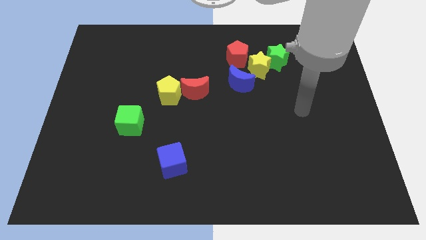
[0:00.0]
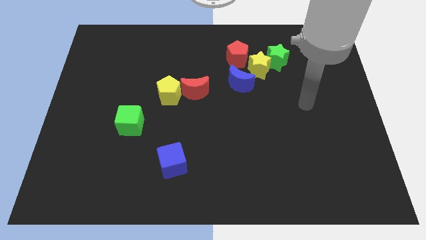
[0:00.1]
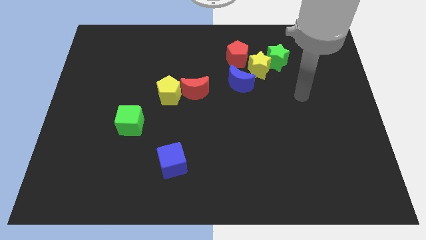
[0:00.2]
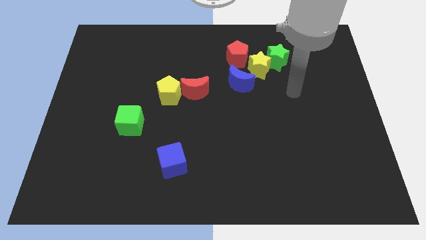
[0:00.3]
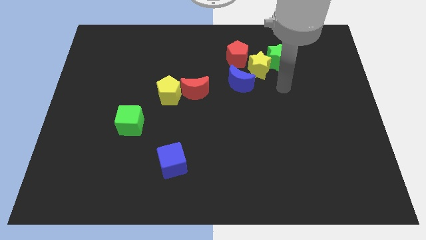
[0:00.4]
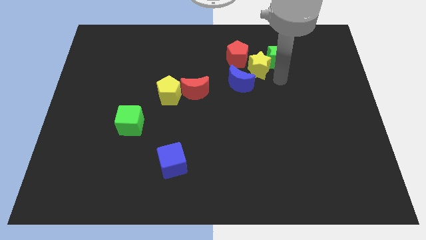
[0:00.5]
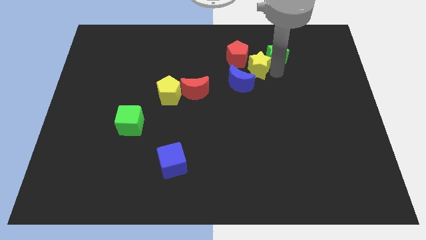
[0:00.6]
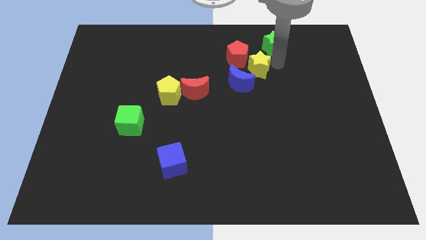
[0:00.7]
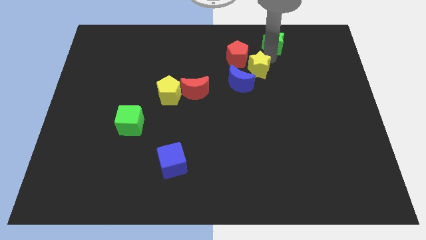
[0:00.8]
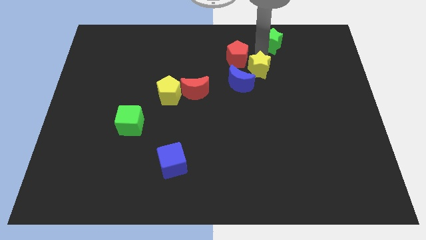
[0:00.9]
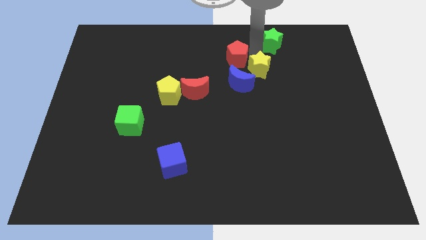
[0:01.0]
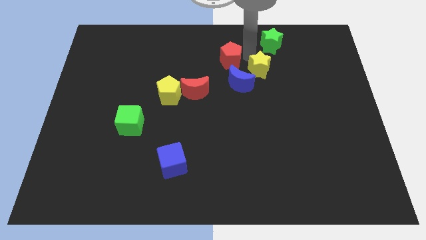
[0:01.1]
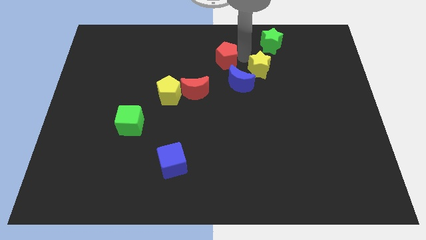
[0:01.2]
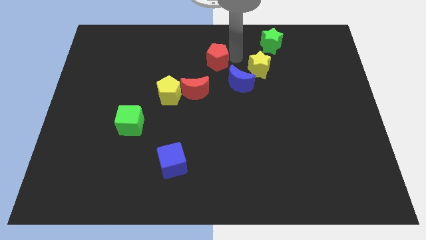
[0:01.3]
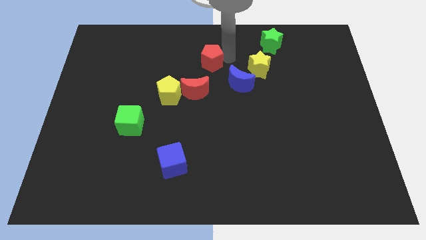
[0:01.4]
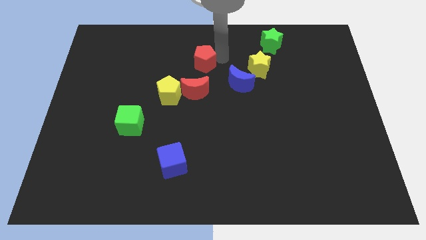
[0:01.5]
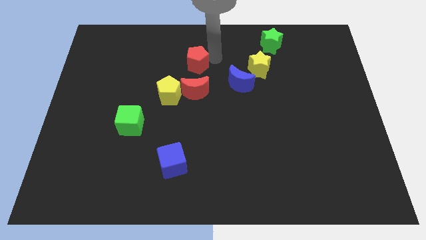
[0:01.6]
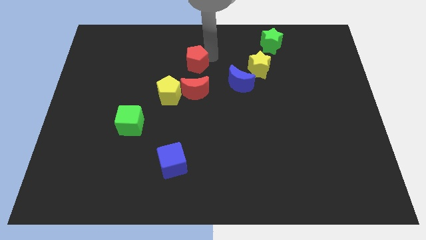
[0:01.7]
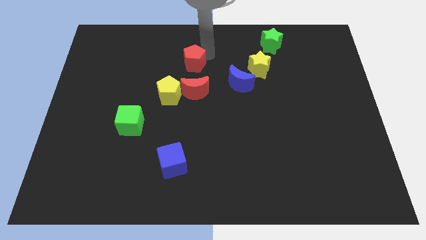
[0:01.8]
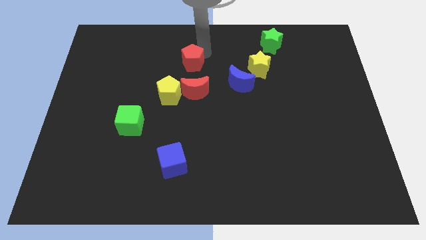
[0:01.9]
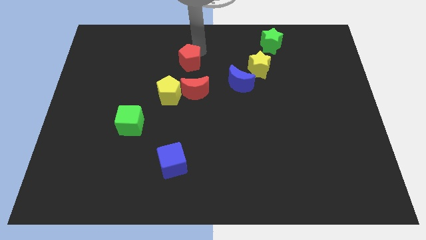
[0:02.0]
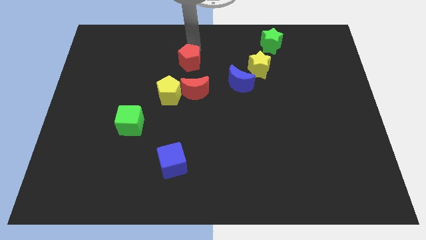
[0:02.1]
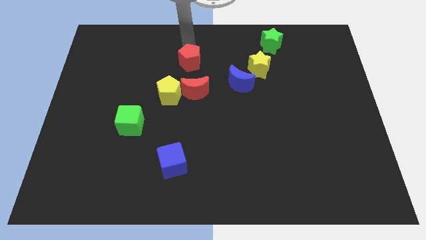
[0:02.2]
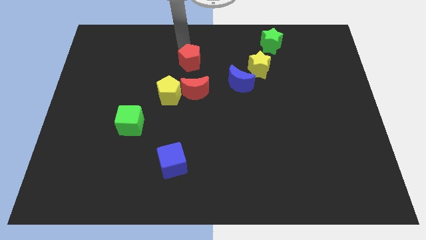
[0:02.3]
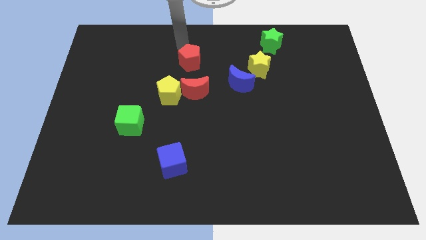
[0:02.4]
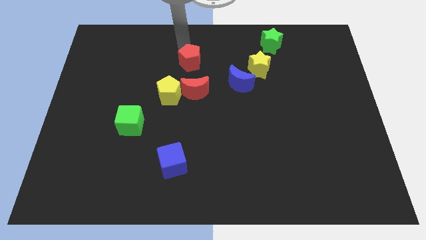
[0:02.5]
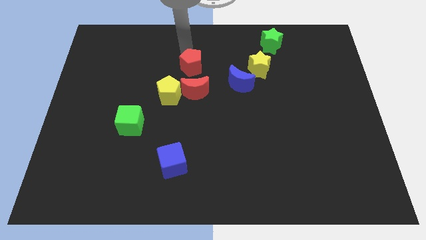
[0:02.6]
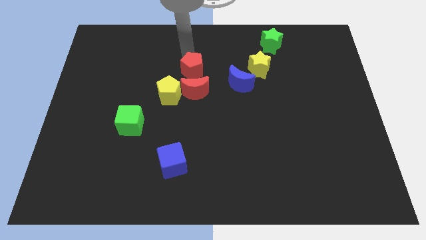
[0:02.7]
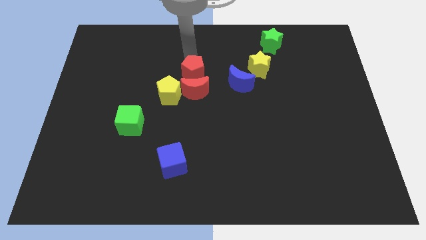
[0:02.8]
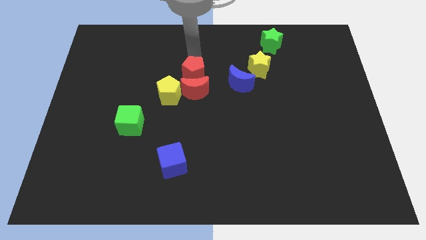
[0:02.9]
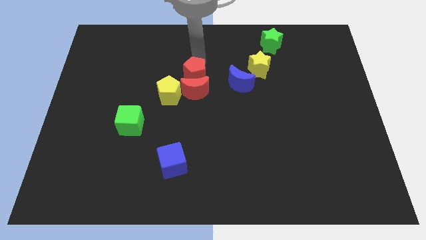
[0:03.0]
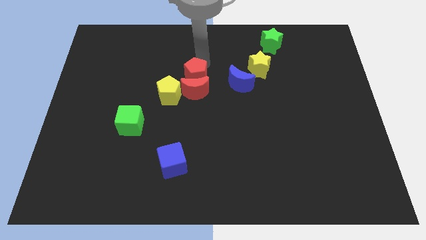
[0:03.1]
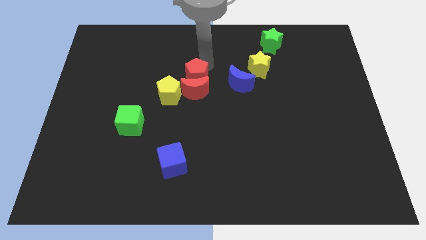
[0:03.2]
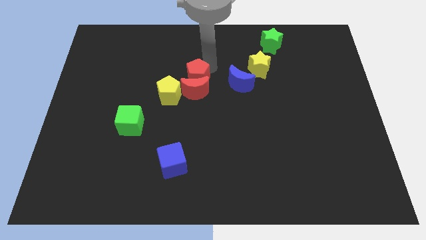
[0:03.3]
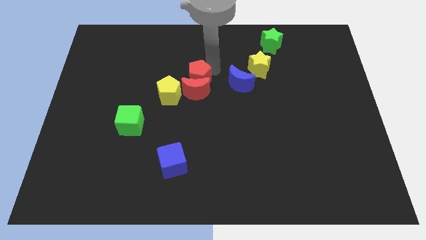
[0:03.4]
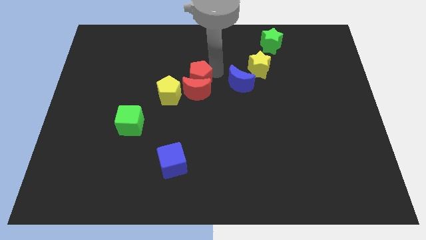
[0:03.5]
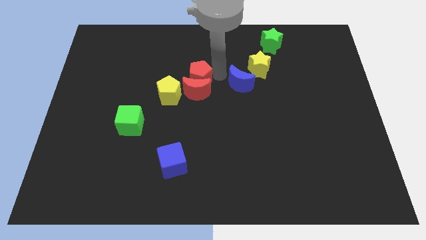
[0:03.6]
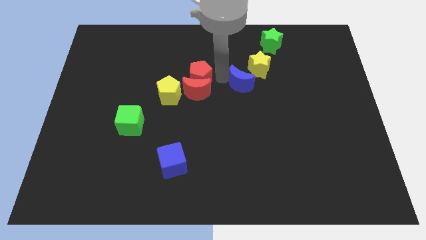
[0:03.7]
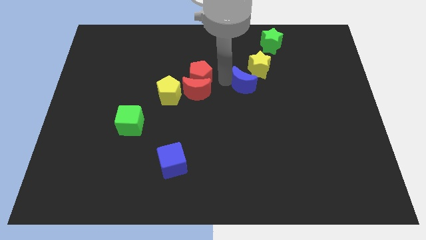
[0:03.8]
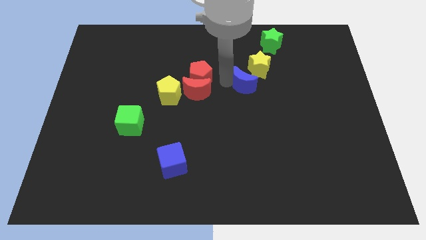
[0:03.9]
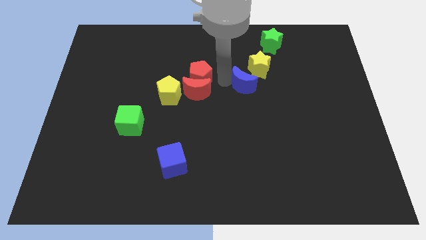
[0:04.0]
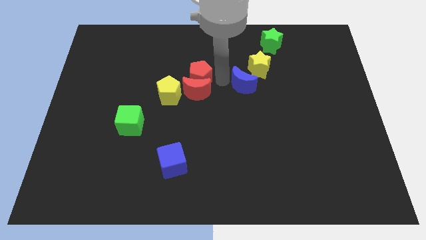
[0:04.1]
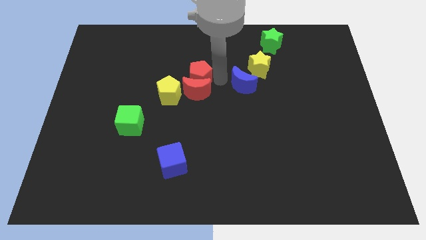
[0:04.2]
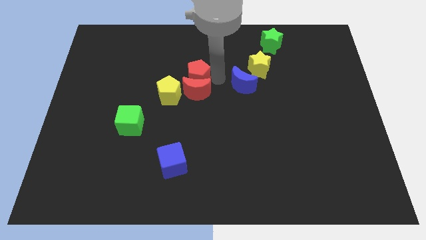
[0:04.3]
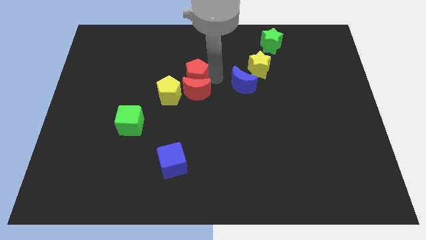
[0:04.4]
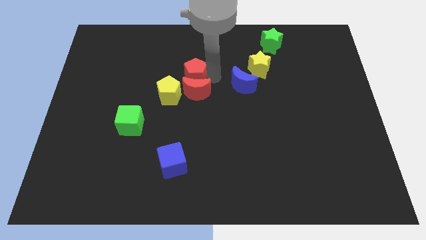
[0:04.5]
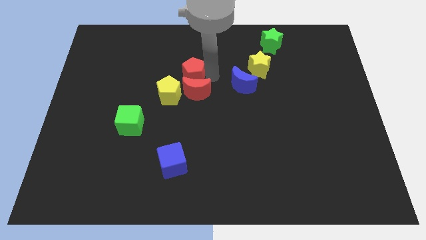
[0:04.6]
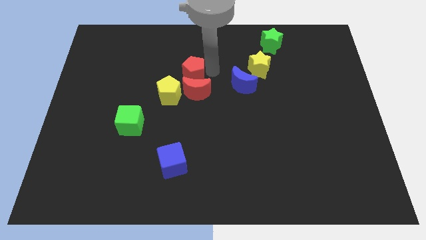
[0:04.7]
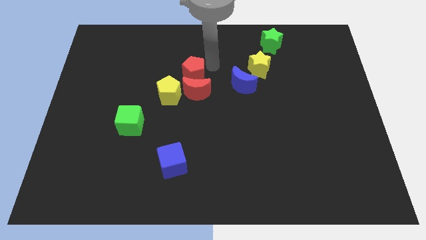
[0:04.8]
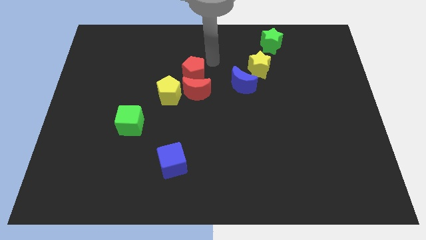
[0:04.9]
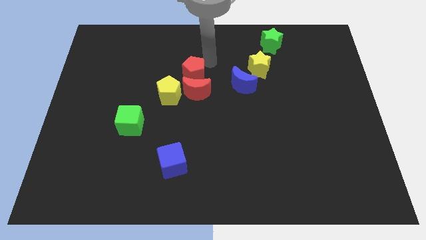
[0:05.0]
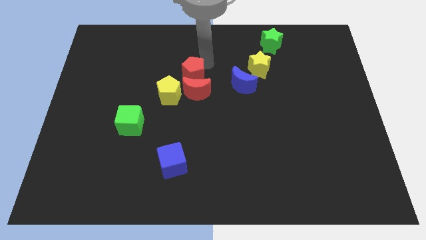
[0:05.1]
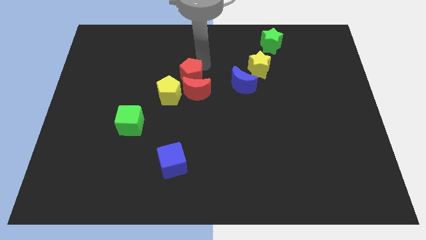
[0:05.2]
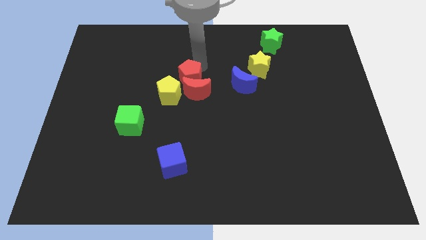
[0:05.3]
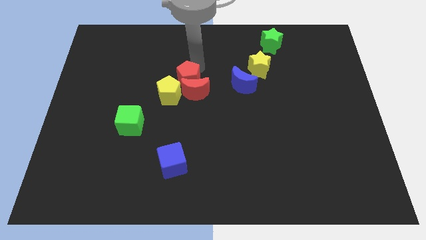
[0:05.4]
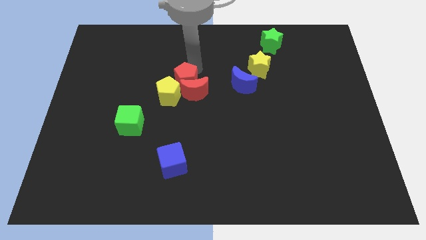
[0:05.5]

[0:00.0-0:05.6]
put the red pentagon towards the yellow pentagon

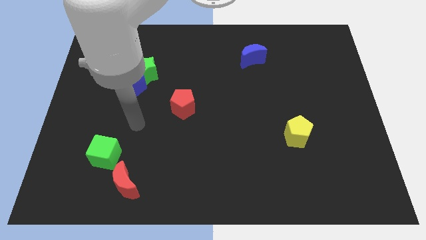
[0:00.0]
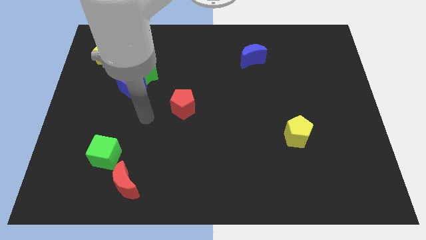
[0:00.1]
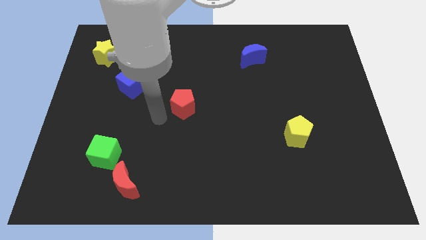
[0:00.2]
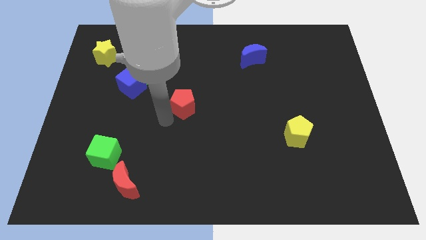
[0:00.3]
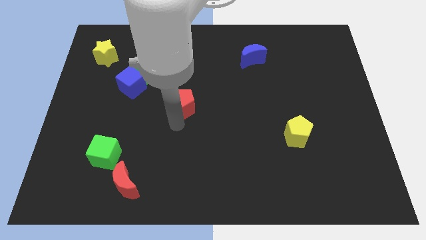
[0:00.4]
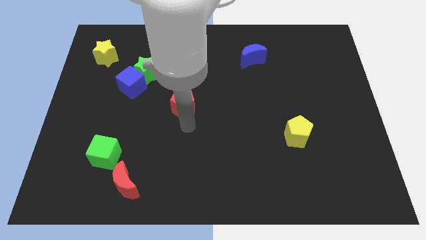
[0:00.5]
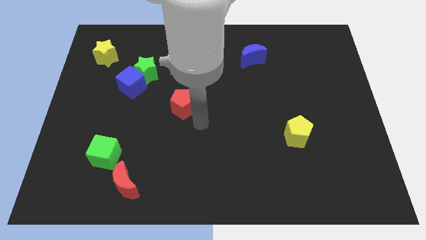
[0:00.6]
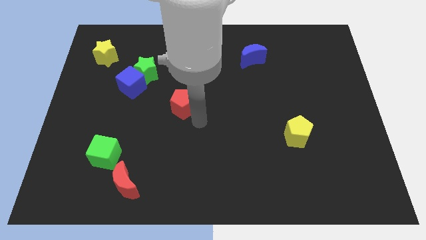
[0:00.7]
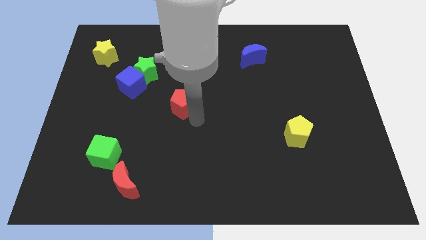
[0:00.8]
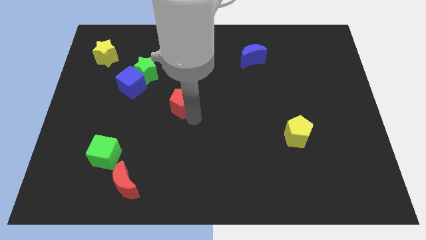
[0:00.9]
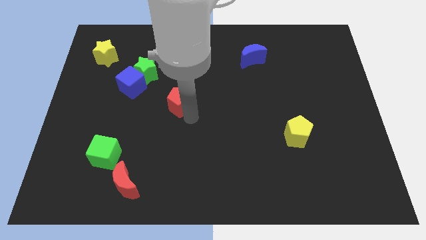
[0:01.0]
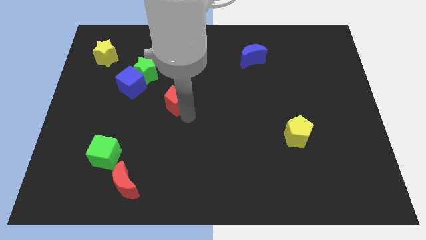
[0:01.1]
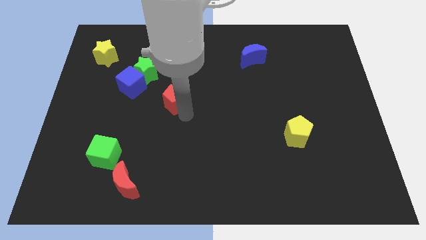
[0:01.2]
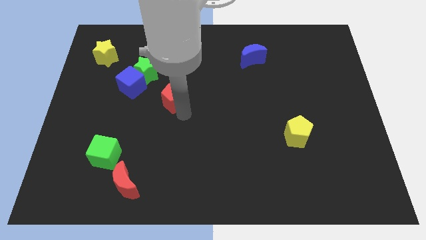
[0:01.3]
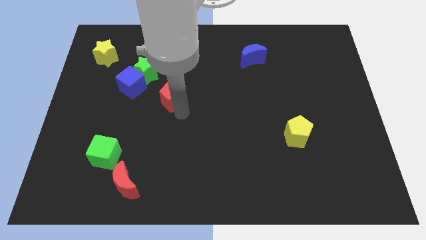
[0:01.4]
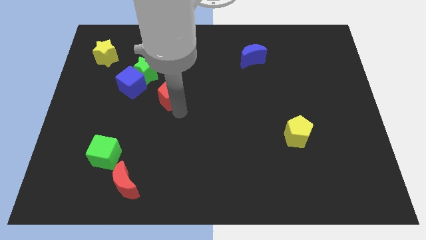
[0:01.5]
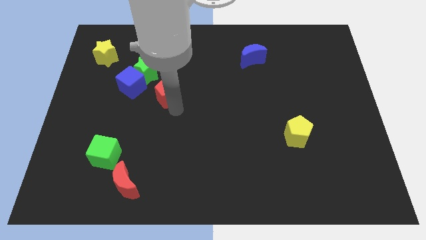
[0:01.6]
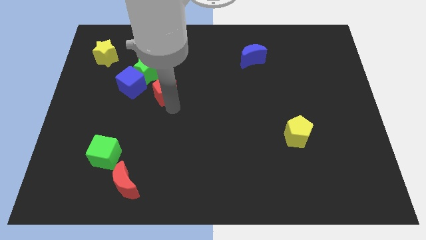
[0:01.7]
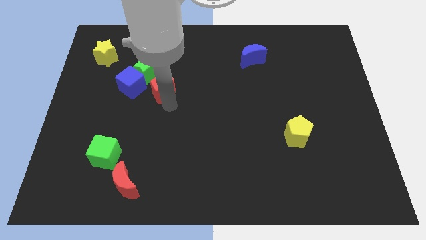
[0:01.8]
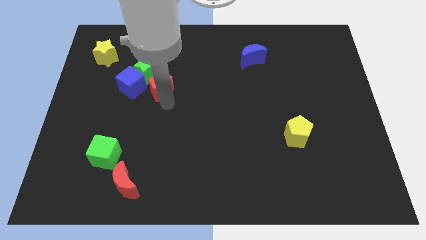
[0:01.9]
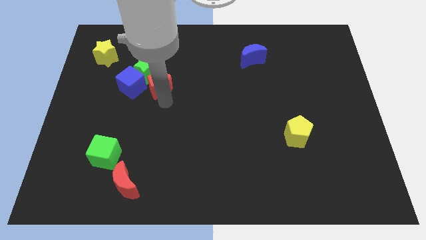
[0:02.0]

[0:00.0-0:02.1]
push the red pentagon close to the green star
